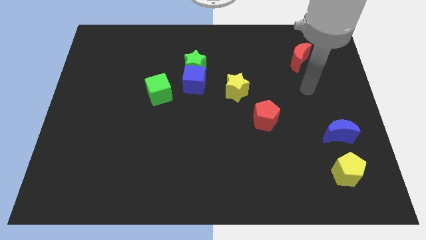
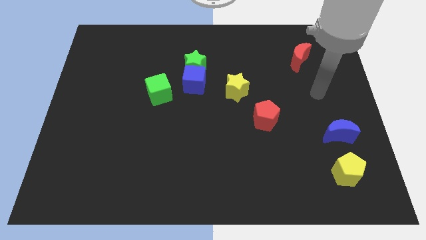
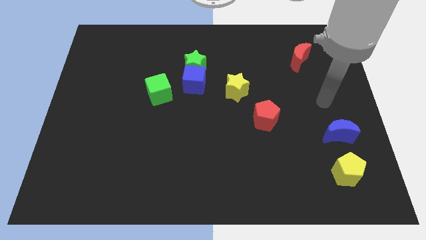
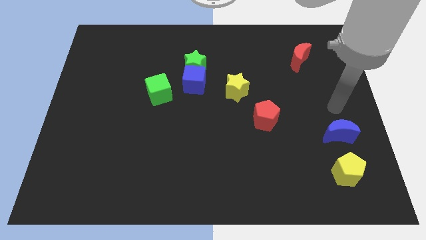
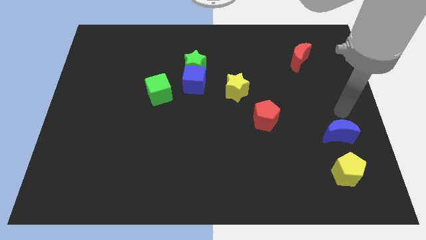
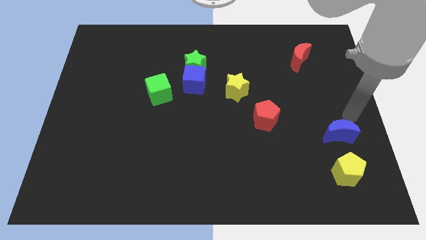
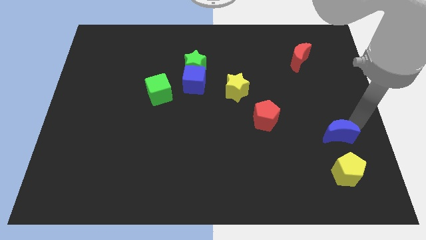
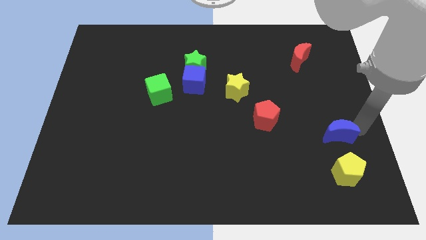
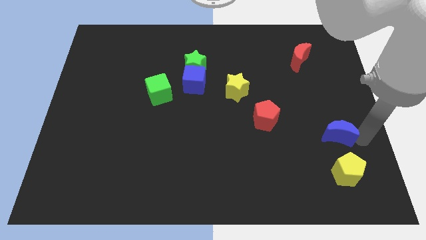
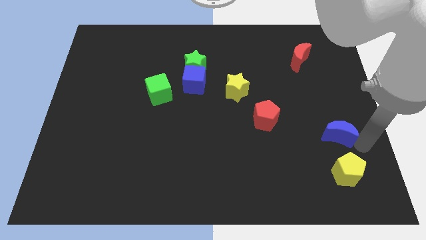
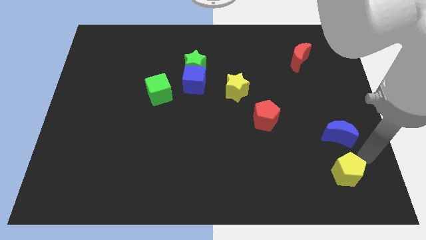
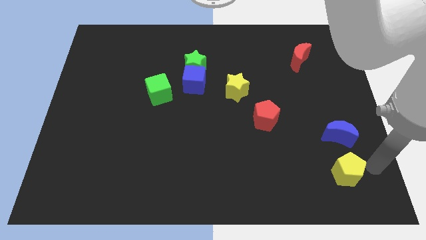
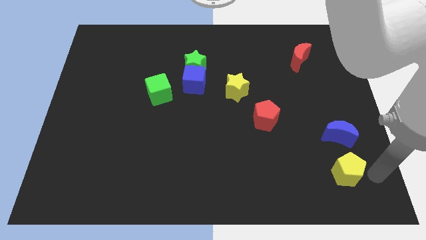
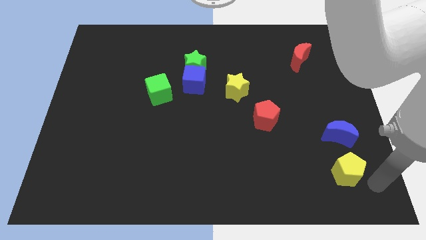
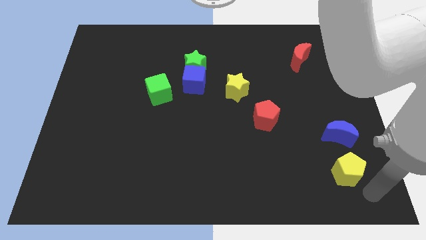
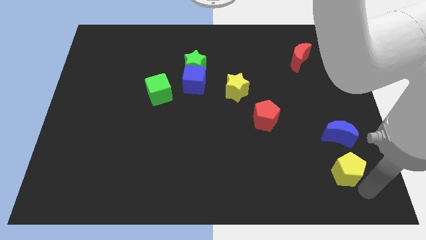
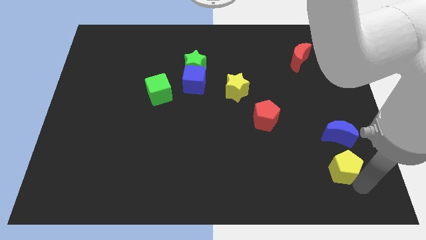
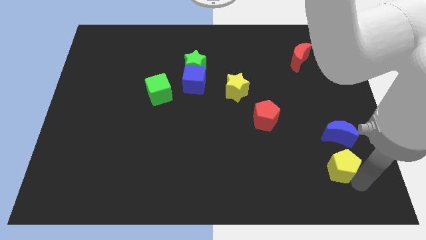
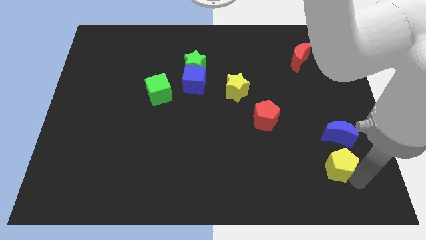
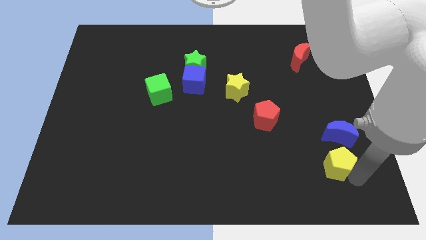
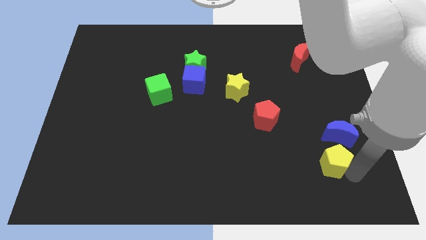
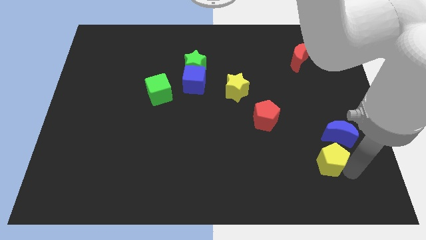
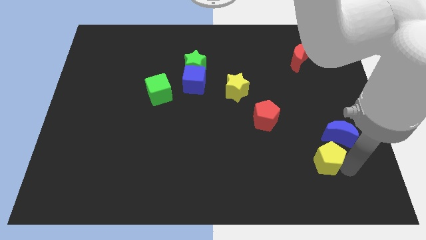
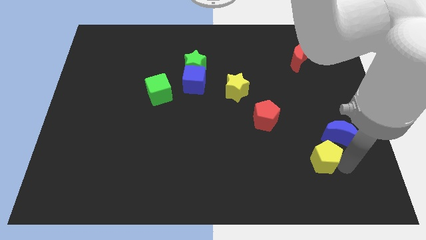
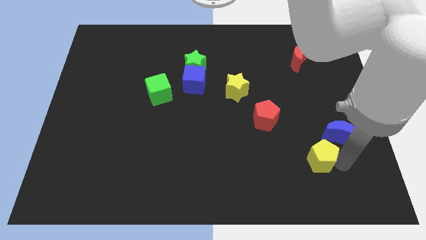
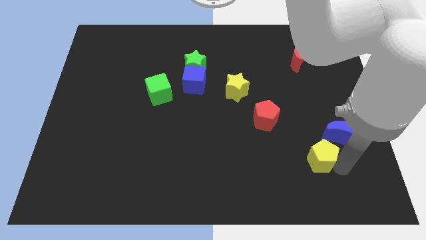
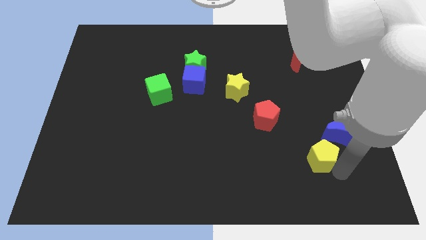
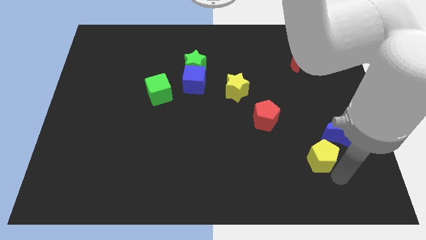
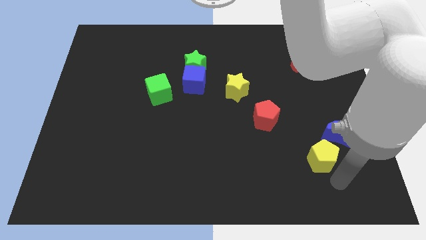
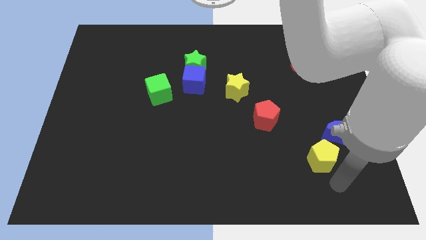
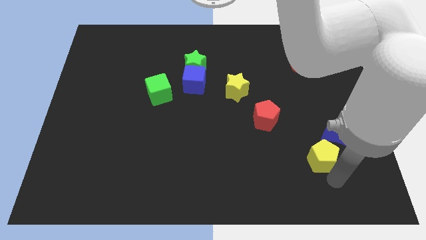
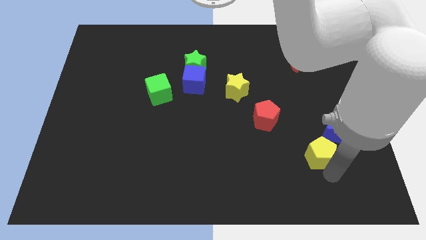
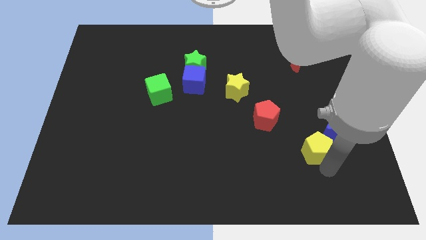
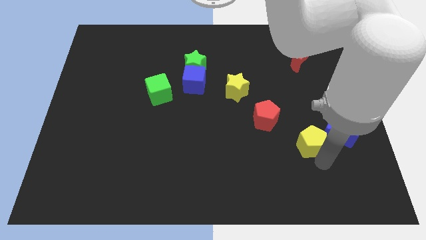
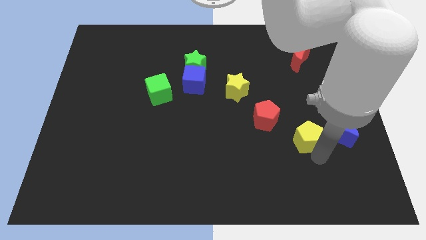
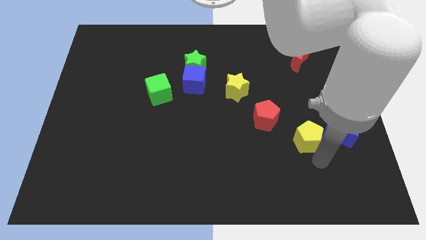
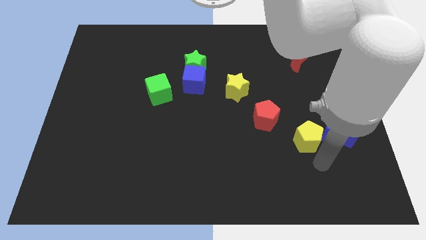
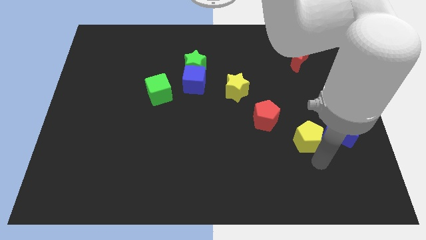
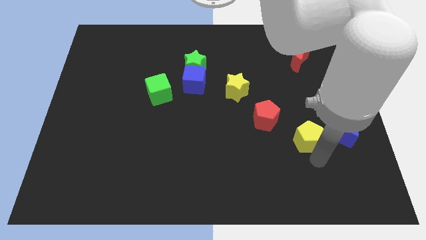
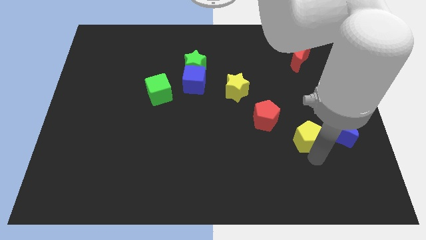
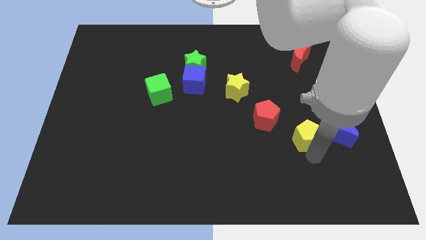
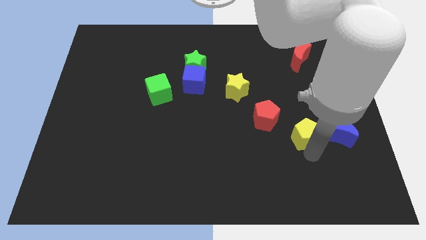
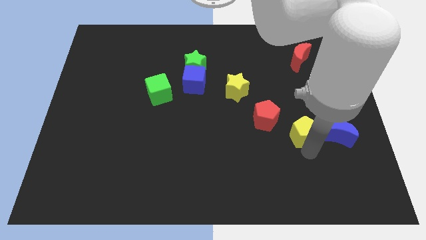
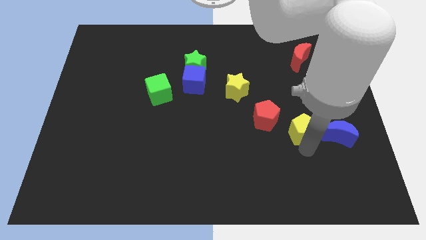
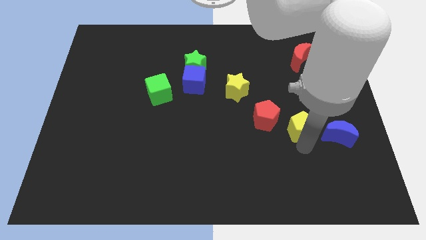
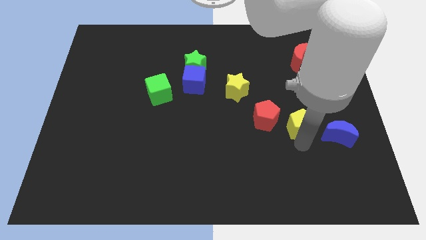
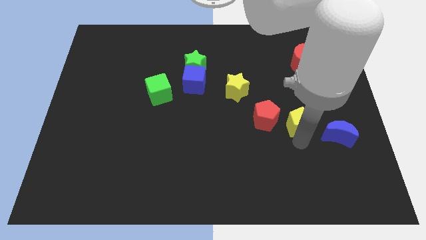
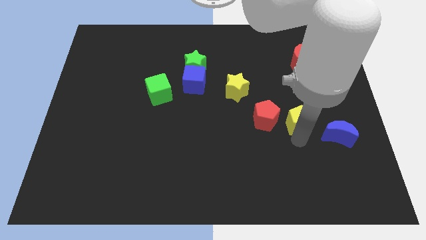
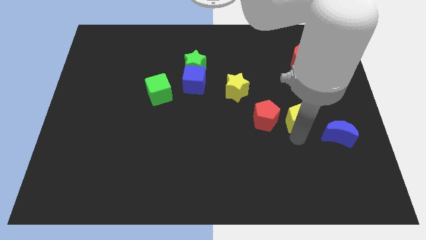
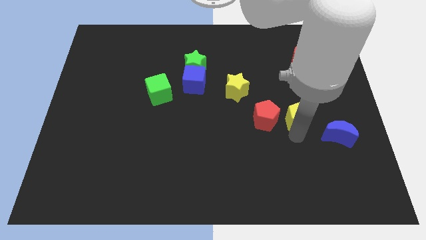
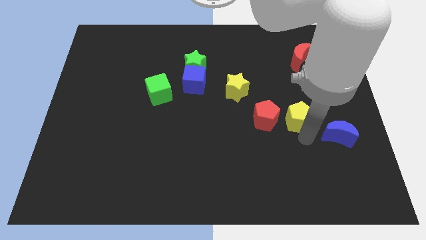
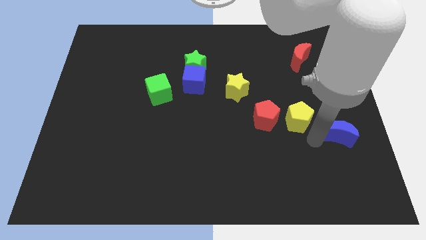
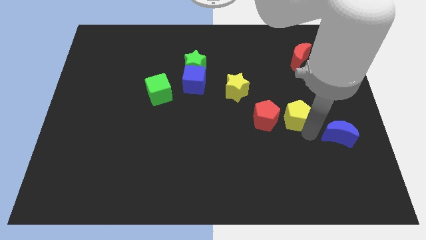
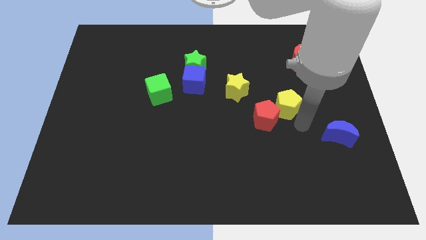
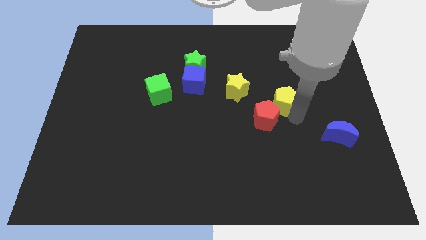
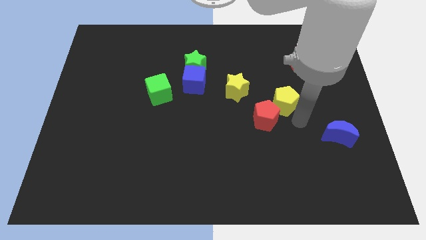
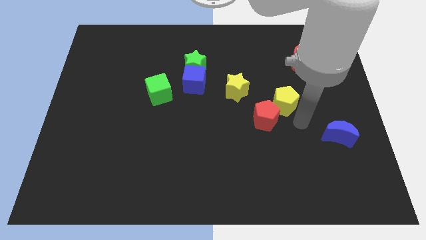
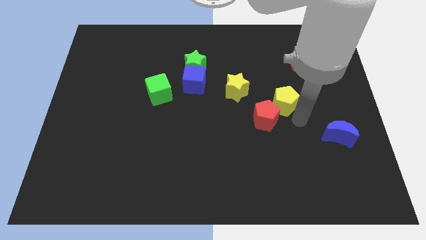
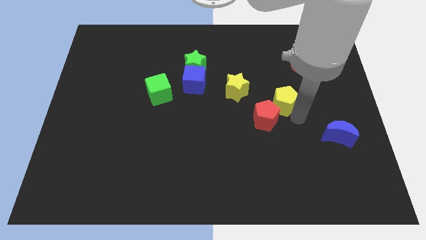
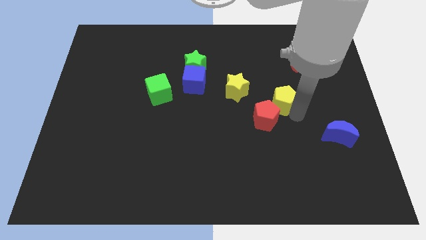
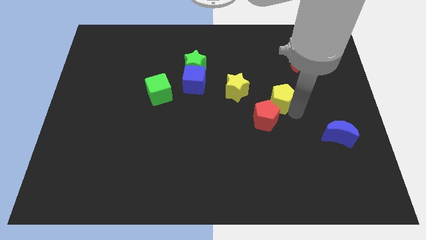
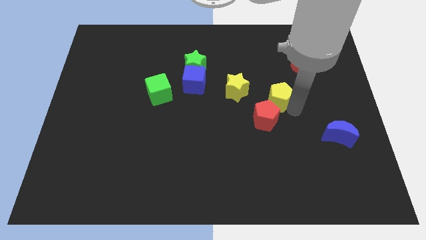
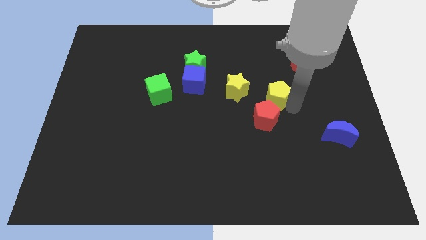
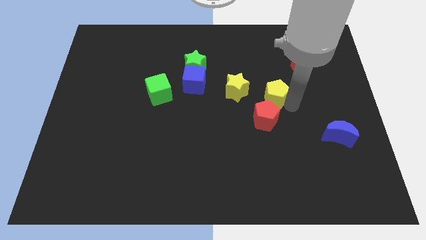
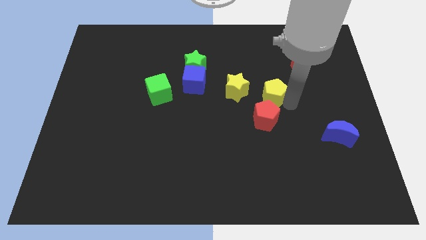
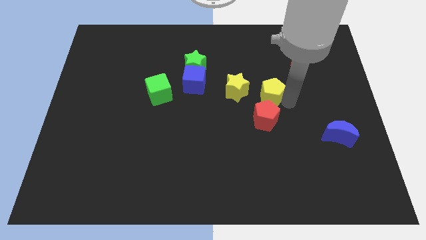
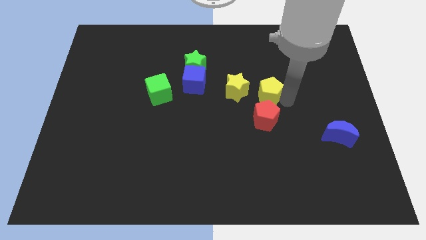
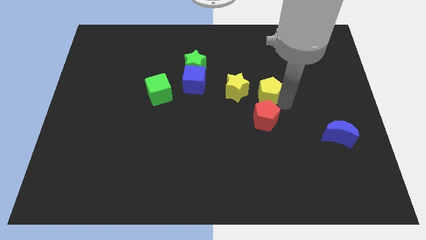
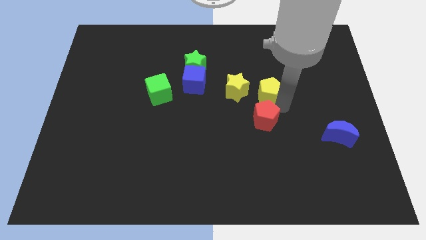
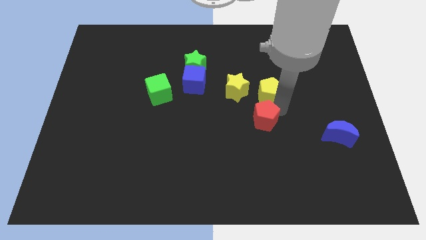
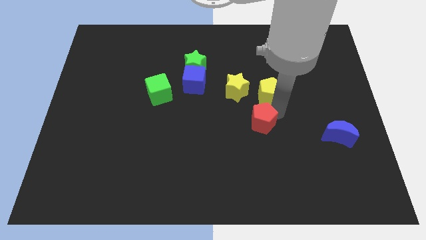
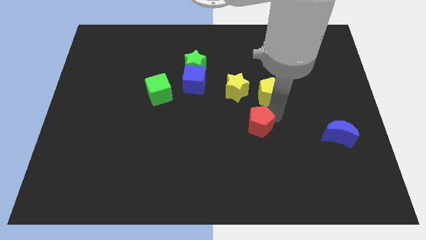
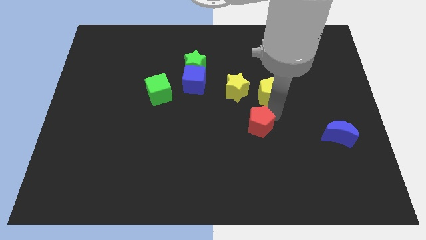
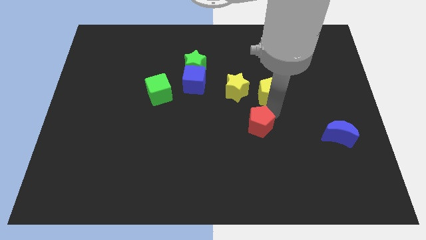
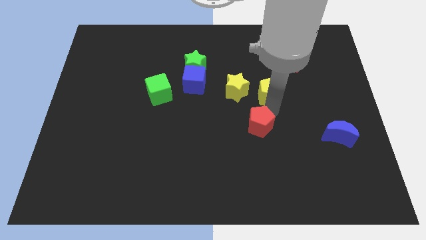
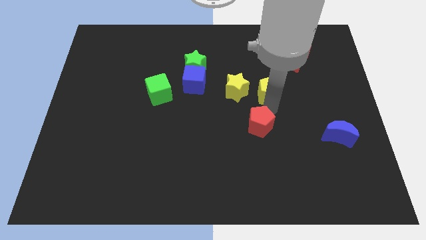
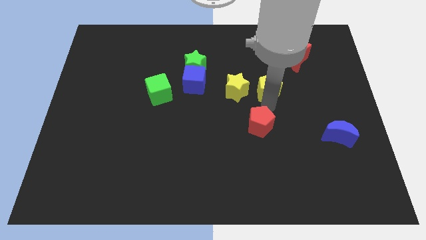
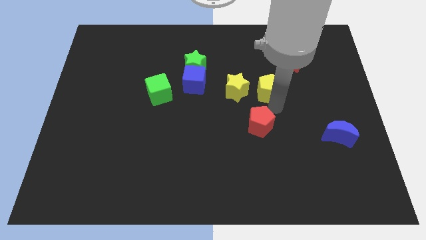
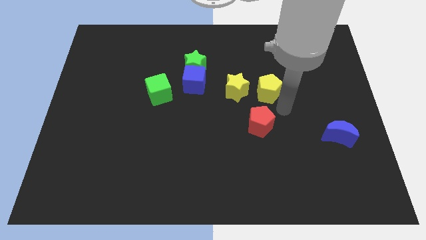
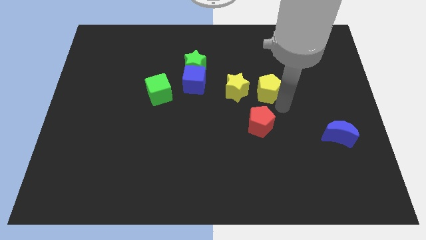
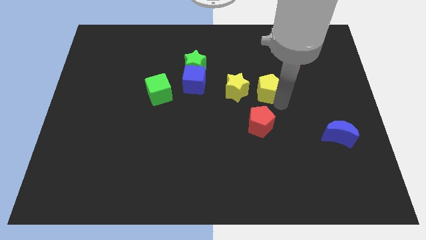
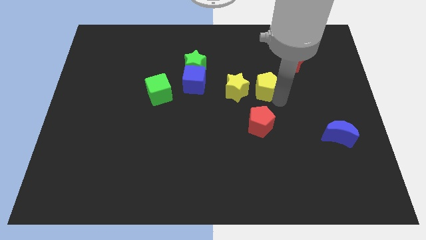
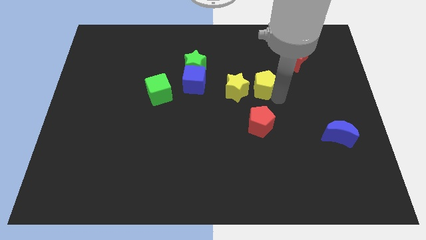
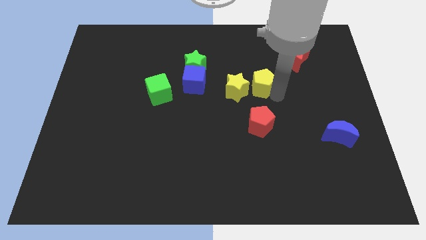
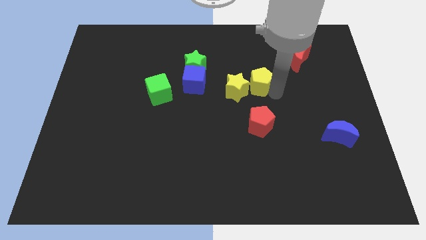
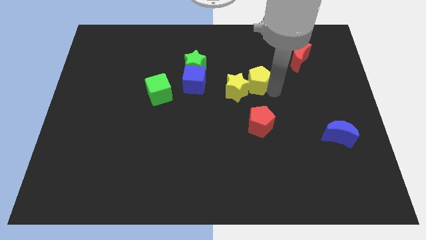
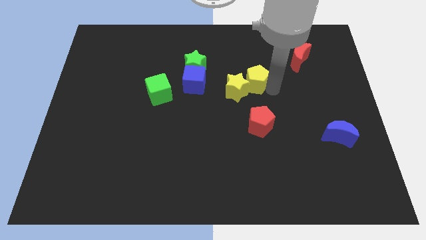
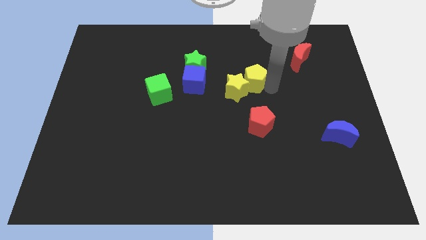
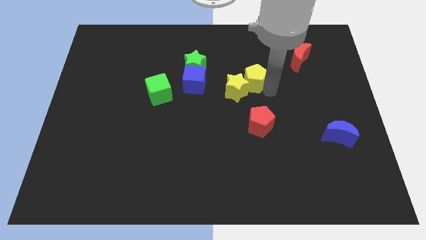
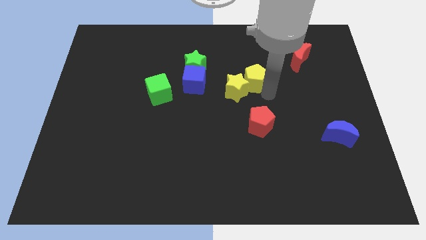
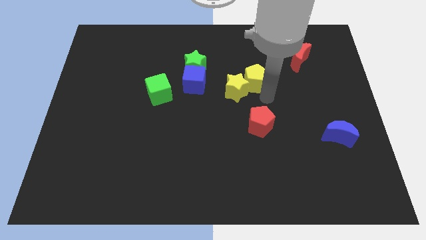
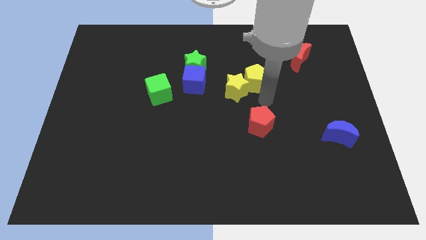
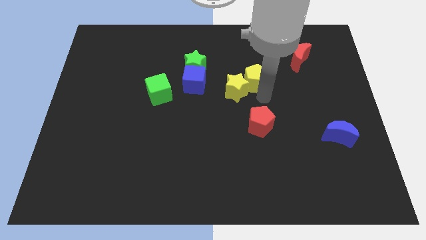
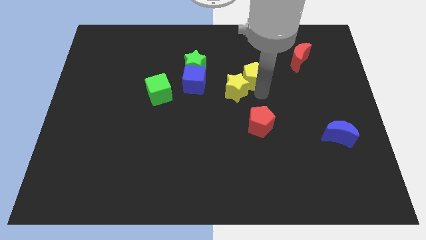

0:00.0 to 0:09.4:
move the yellow pentagon to the top of the yellow star
